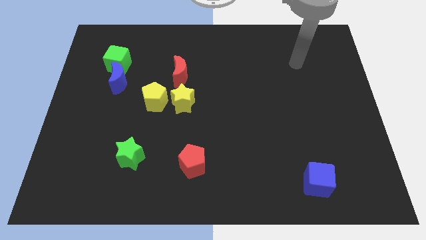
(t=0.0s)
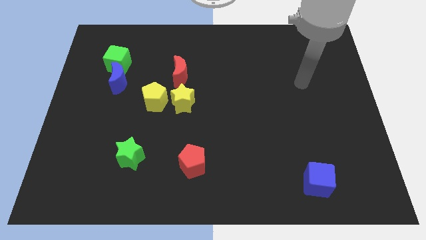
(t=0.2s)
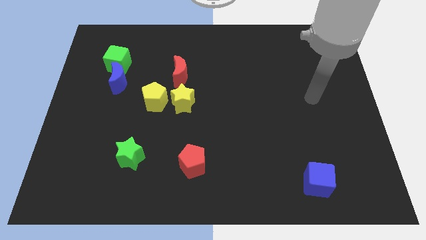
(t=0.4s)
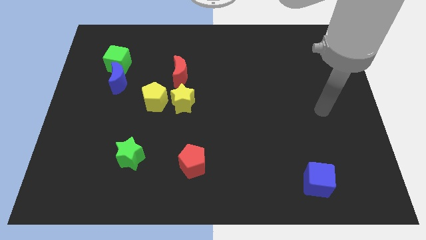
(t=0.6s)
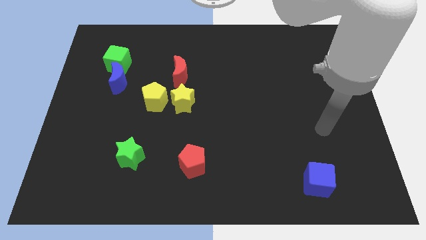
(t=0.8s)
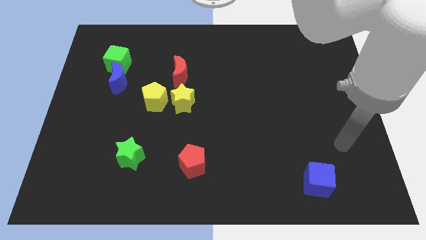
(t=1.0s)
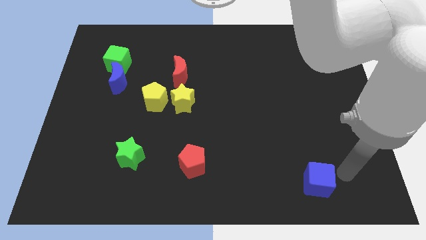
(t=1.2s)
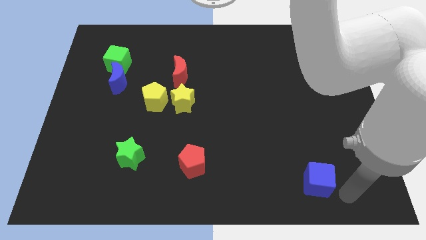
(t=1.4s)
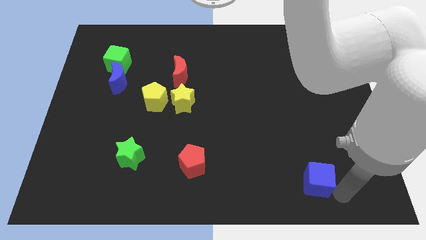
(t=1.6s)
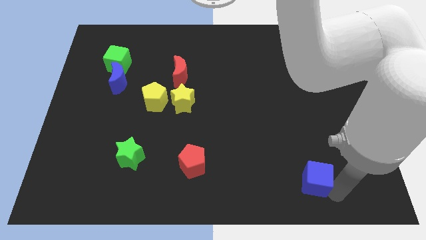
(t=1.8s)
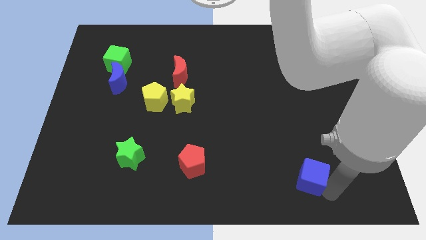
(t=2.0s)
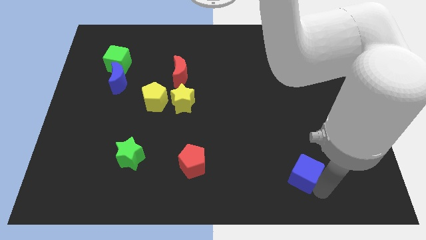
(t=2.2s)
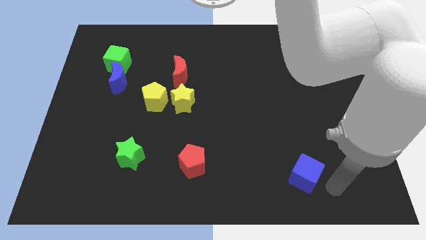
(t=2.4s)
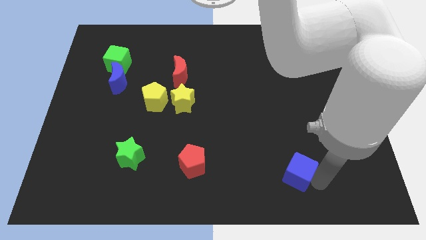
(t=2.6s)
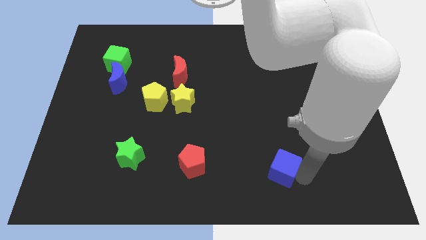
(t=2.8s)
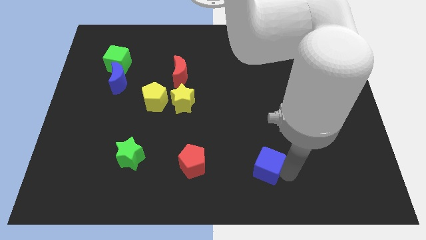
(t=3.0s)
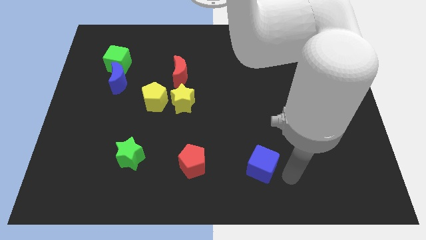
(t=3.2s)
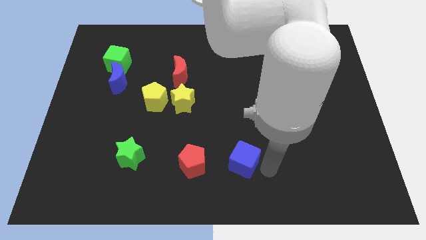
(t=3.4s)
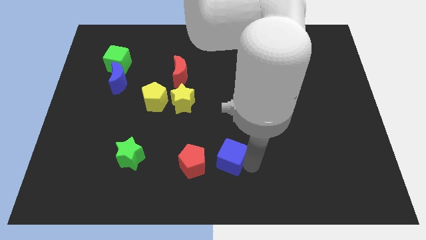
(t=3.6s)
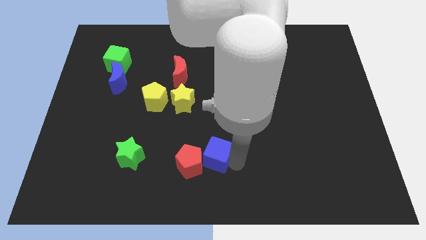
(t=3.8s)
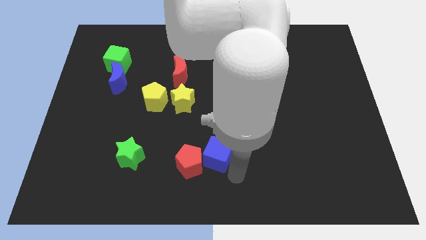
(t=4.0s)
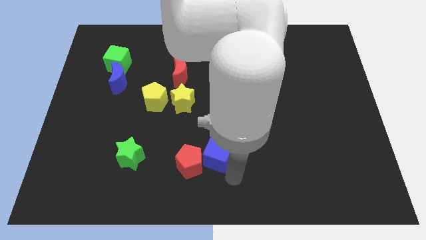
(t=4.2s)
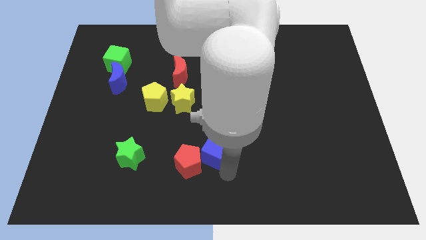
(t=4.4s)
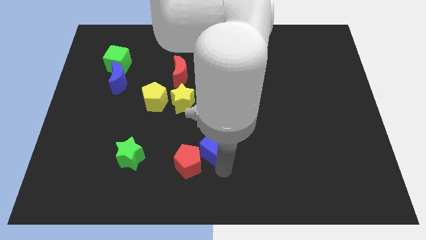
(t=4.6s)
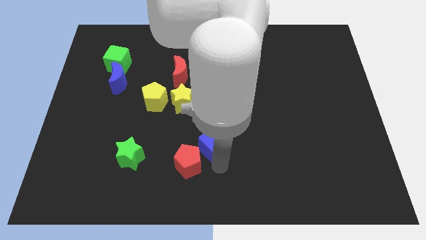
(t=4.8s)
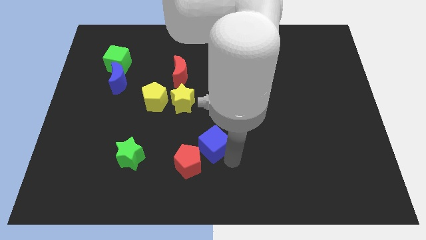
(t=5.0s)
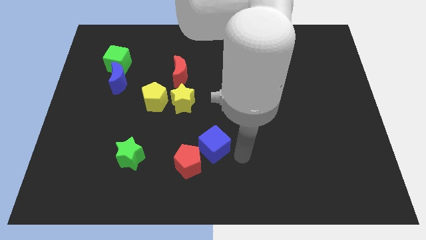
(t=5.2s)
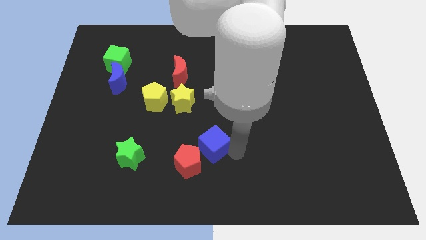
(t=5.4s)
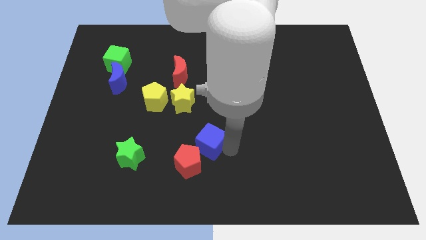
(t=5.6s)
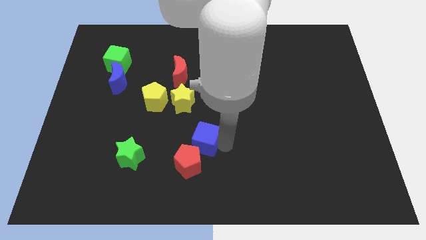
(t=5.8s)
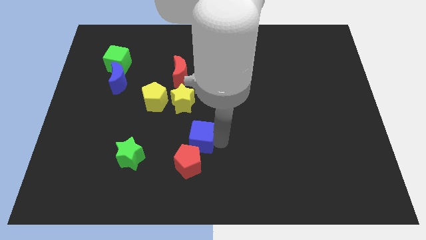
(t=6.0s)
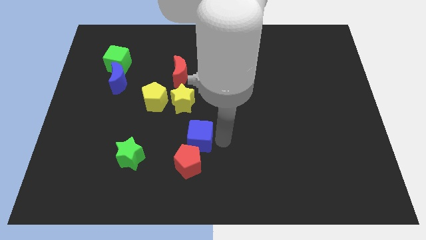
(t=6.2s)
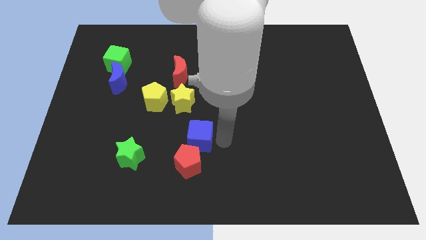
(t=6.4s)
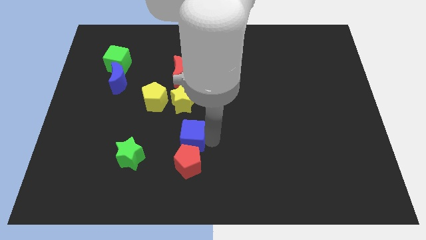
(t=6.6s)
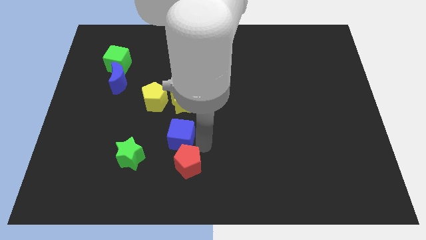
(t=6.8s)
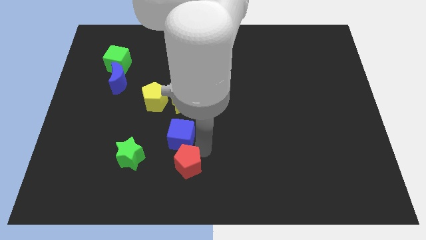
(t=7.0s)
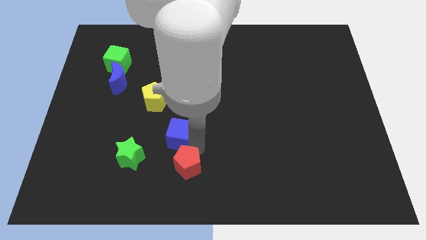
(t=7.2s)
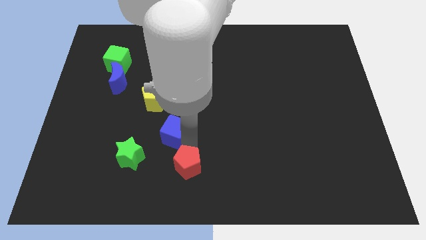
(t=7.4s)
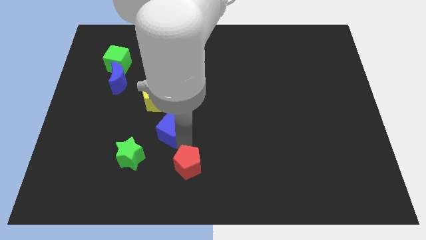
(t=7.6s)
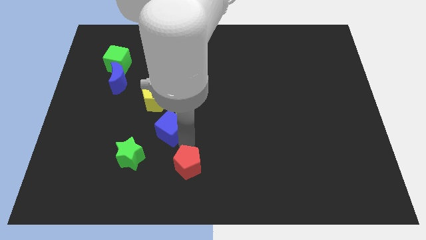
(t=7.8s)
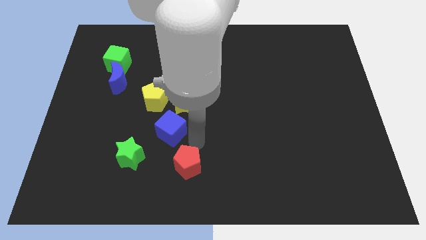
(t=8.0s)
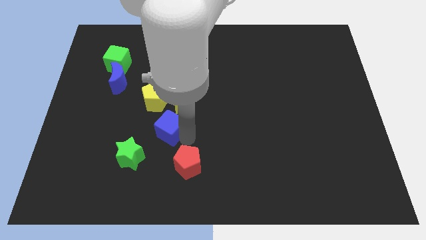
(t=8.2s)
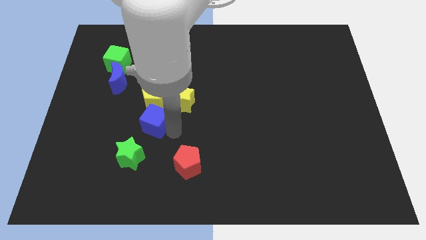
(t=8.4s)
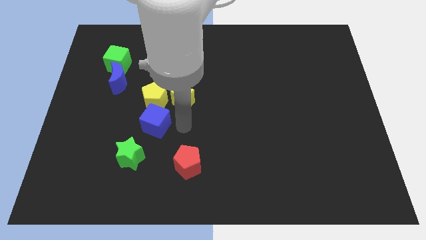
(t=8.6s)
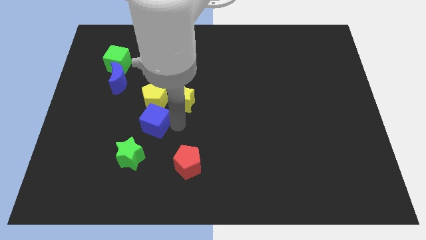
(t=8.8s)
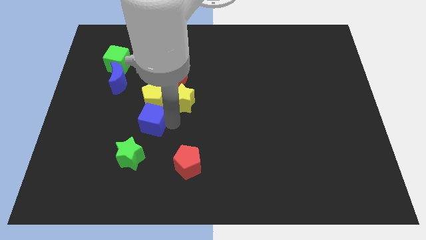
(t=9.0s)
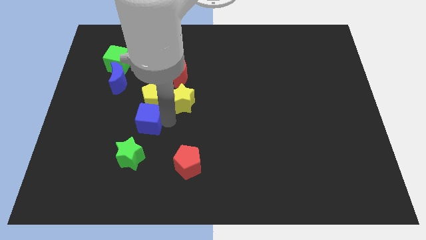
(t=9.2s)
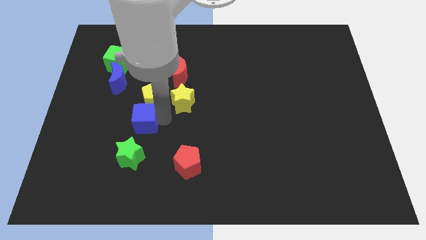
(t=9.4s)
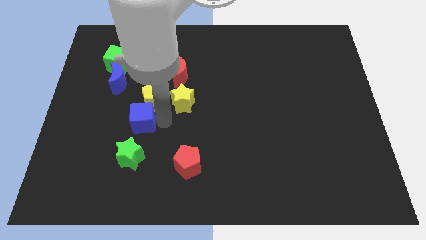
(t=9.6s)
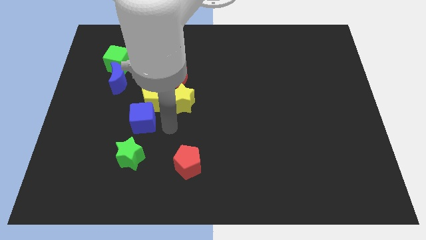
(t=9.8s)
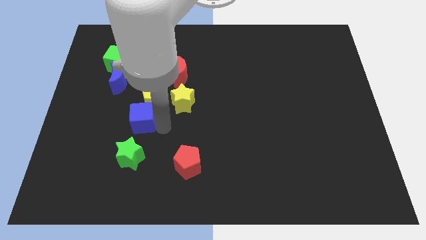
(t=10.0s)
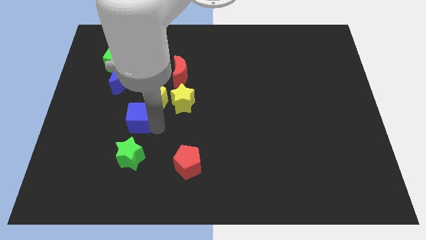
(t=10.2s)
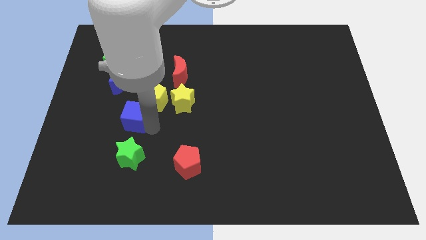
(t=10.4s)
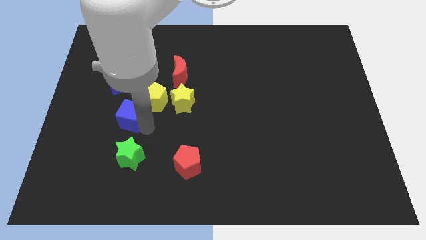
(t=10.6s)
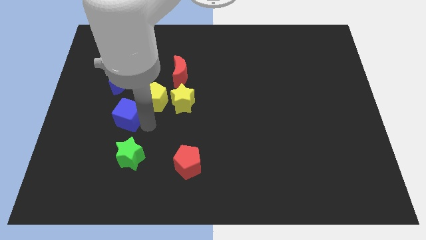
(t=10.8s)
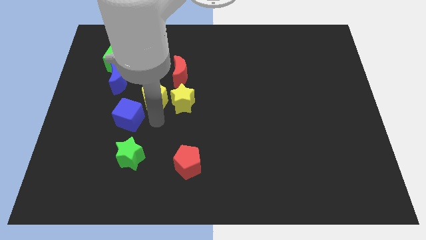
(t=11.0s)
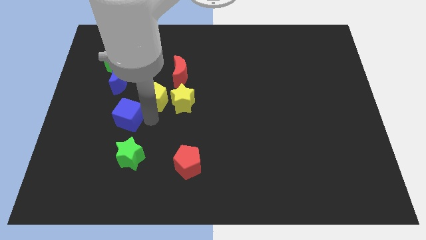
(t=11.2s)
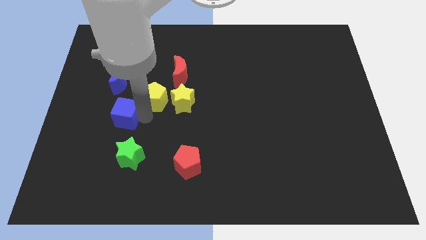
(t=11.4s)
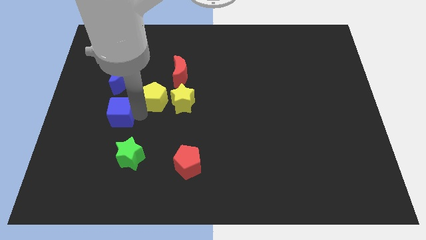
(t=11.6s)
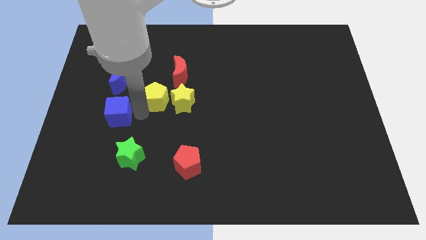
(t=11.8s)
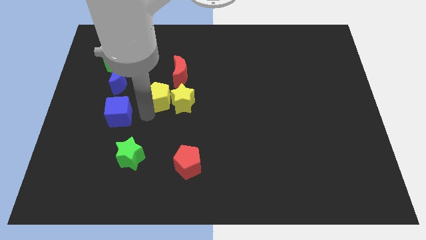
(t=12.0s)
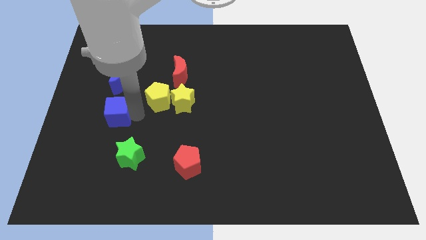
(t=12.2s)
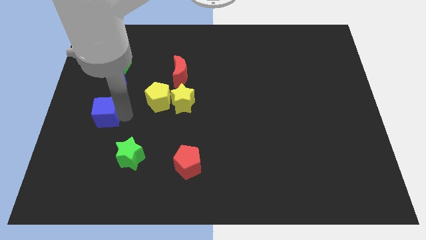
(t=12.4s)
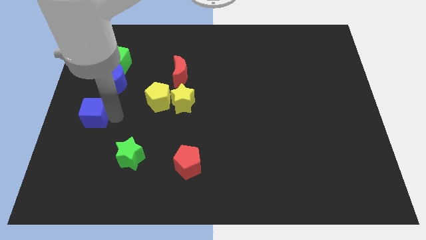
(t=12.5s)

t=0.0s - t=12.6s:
move the blue cube to the center left
